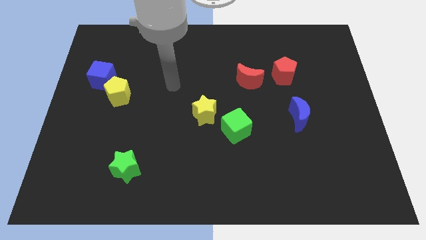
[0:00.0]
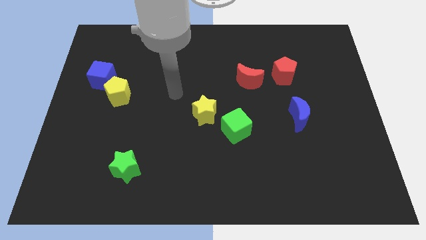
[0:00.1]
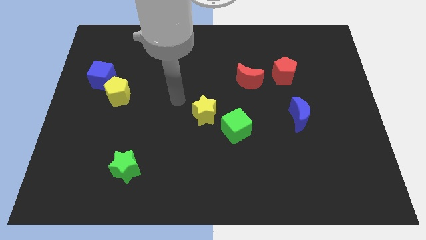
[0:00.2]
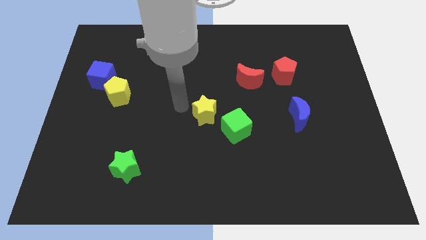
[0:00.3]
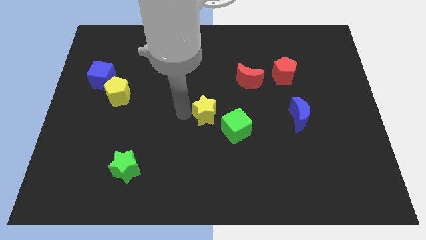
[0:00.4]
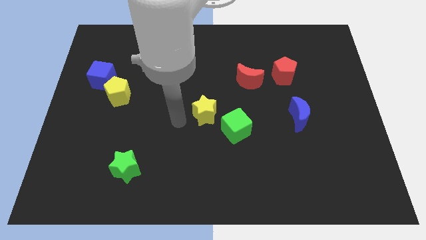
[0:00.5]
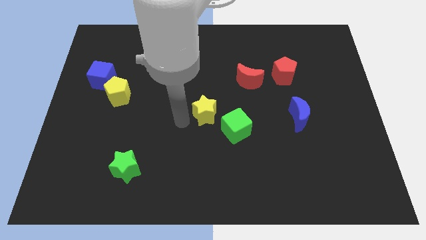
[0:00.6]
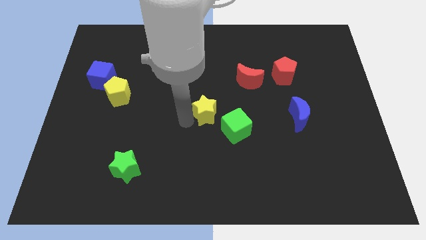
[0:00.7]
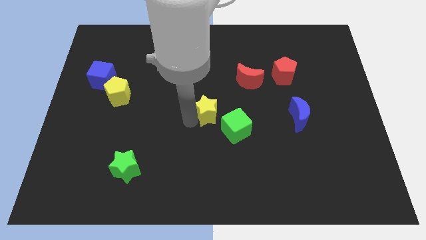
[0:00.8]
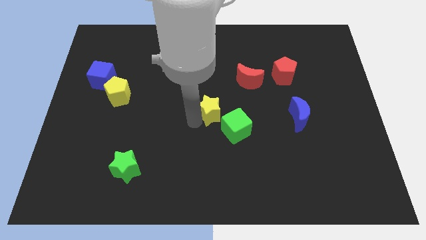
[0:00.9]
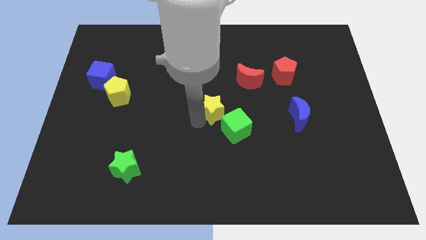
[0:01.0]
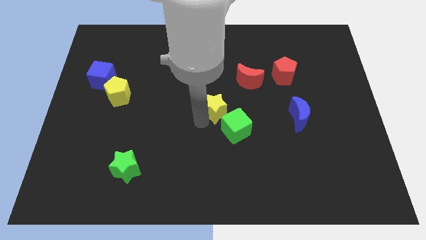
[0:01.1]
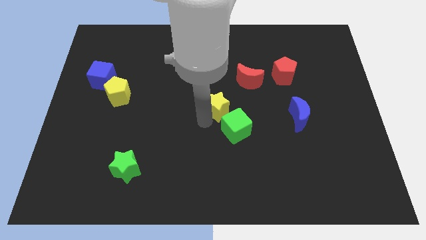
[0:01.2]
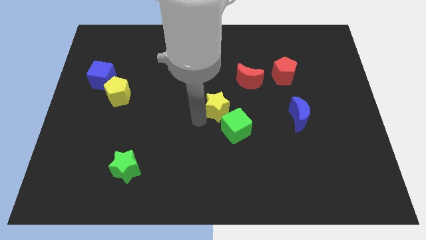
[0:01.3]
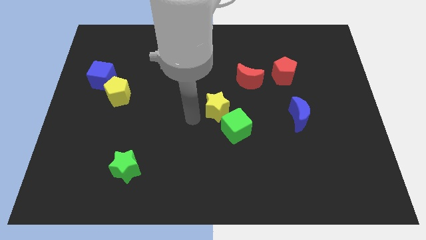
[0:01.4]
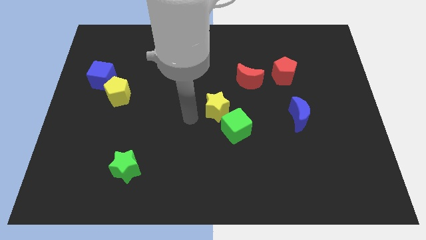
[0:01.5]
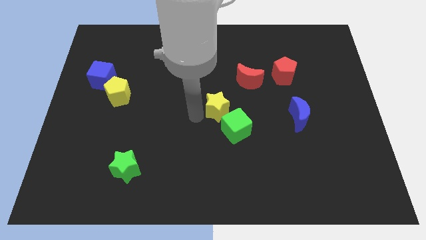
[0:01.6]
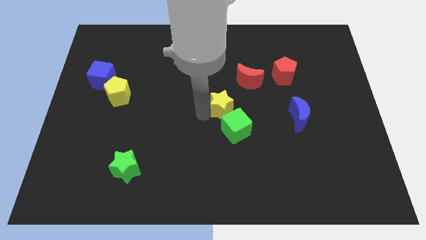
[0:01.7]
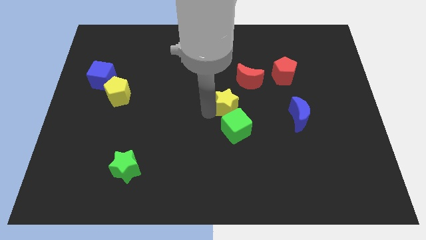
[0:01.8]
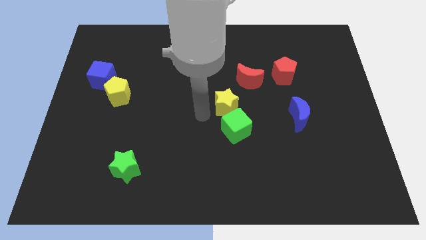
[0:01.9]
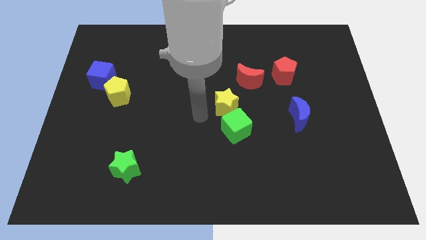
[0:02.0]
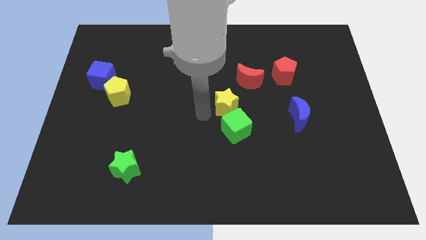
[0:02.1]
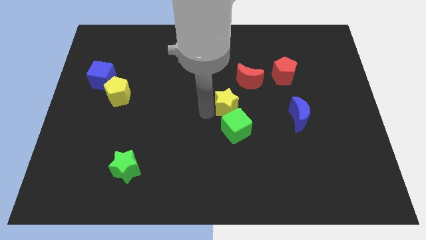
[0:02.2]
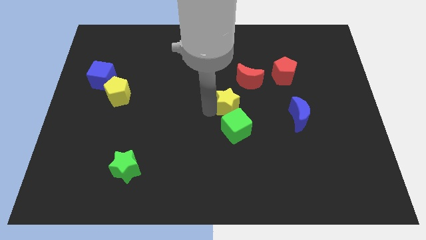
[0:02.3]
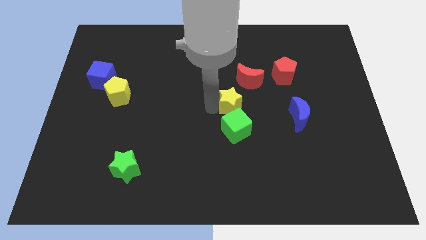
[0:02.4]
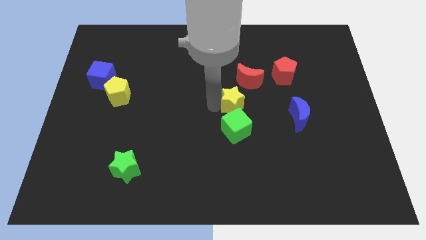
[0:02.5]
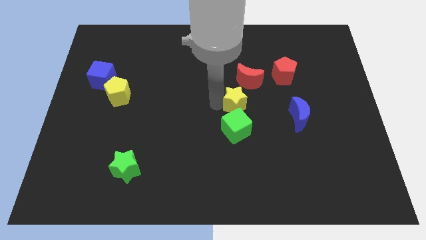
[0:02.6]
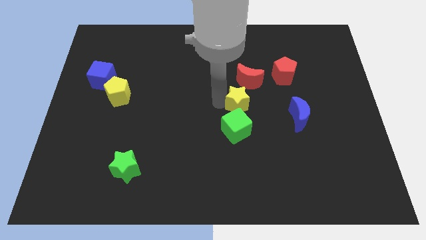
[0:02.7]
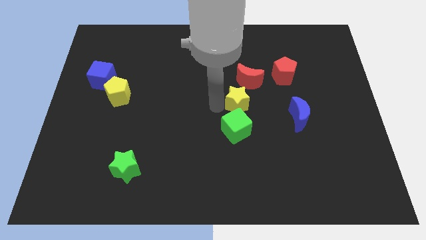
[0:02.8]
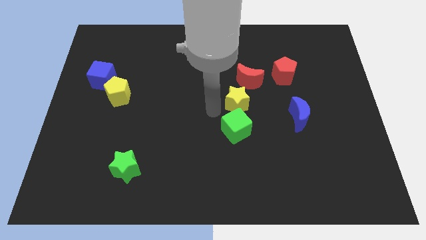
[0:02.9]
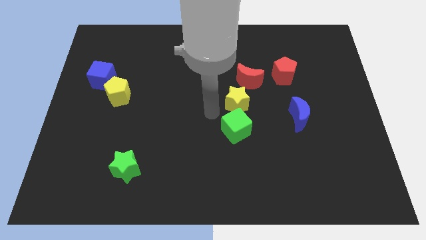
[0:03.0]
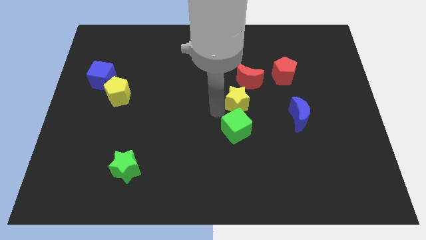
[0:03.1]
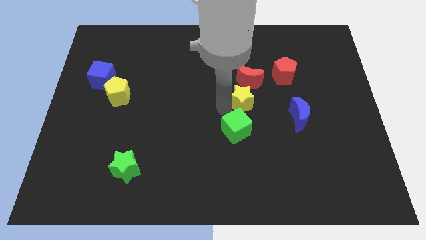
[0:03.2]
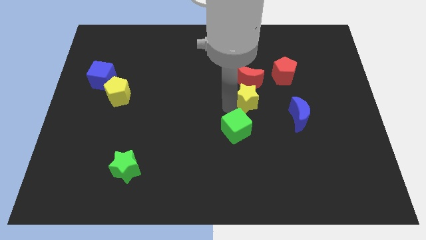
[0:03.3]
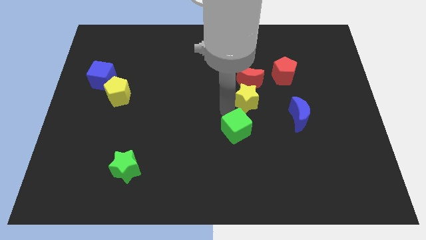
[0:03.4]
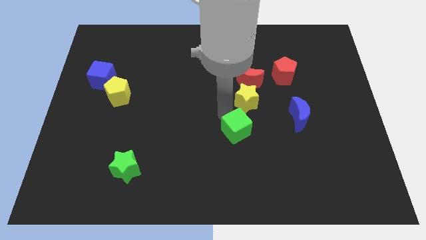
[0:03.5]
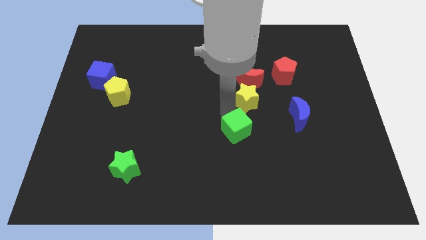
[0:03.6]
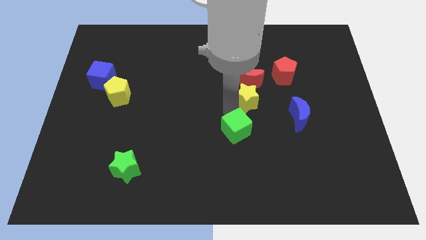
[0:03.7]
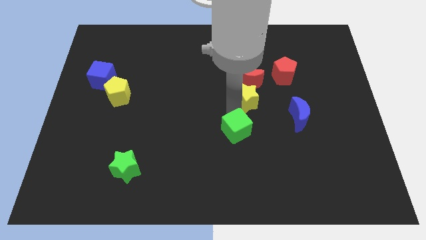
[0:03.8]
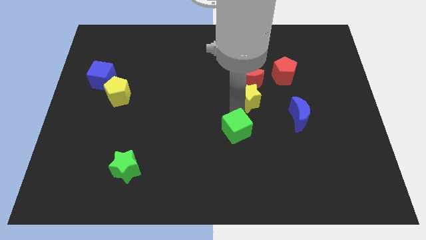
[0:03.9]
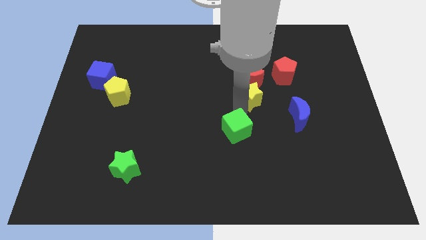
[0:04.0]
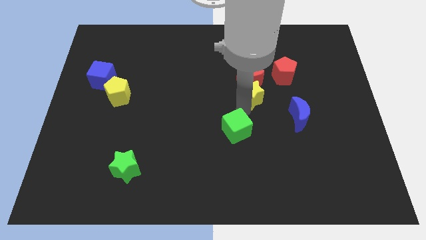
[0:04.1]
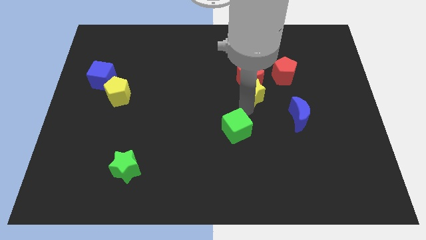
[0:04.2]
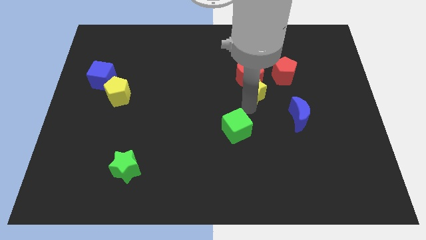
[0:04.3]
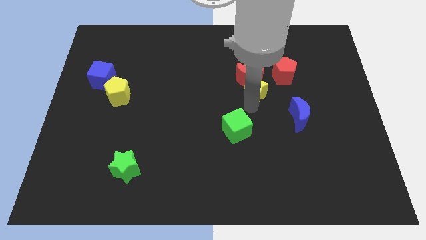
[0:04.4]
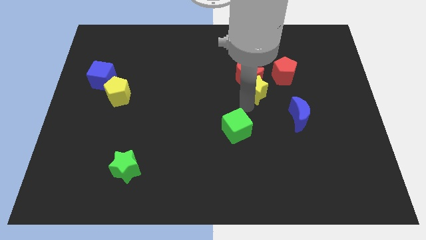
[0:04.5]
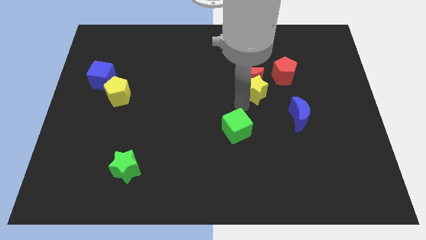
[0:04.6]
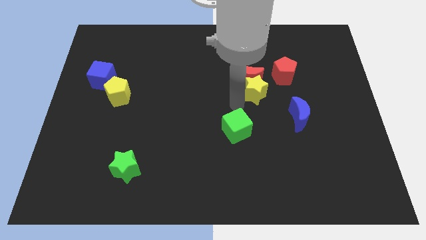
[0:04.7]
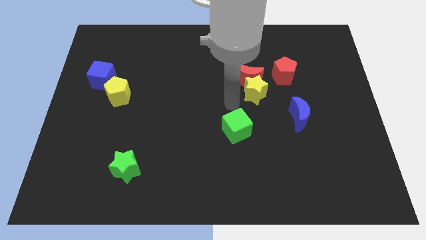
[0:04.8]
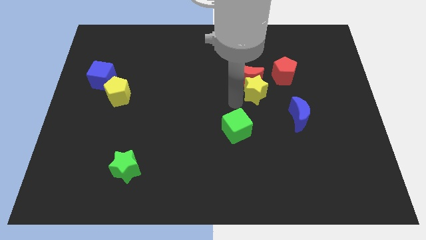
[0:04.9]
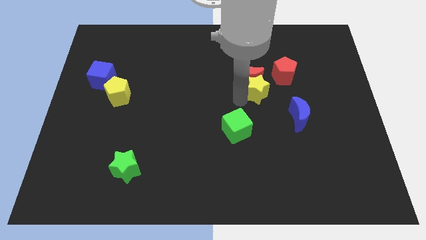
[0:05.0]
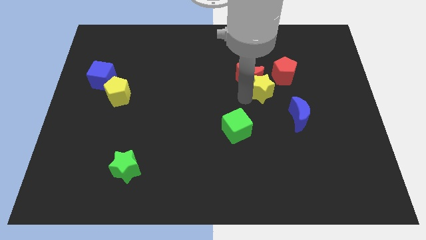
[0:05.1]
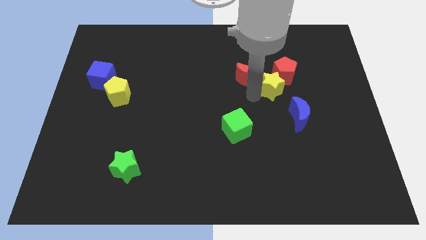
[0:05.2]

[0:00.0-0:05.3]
slide the yellow star towards the red pentagon

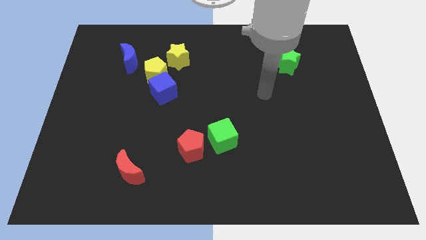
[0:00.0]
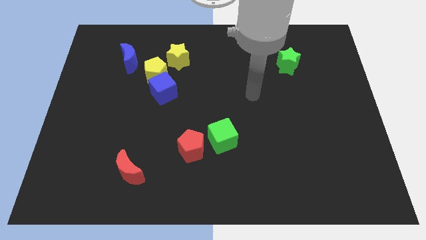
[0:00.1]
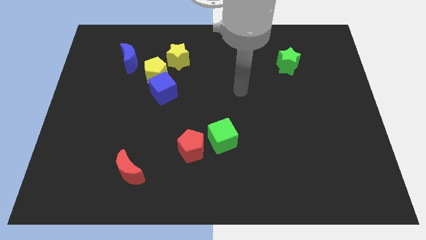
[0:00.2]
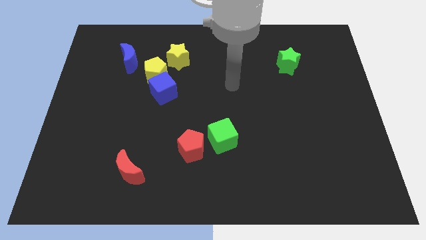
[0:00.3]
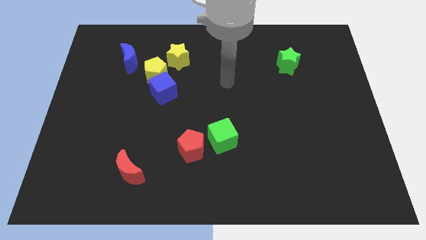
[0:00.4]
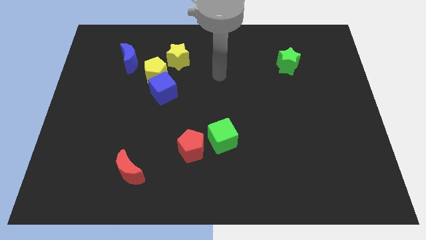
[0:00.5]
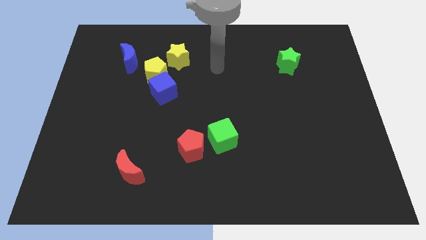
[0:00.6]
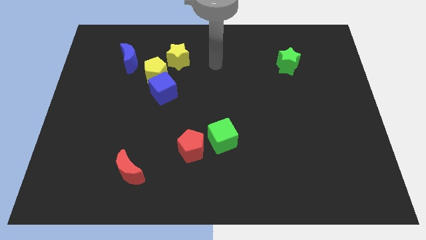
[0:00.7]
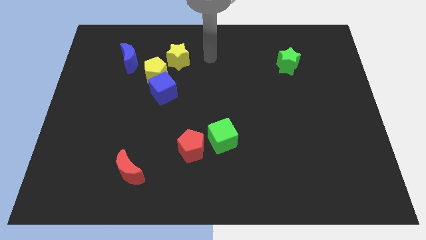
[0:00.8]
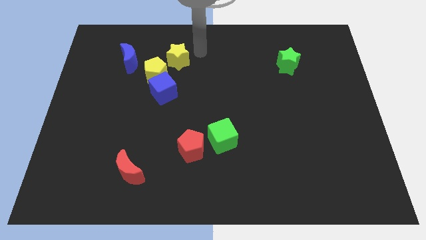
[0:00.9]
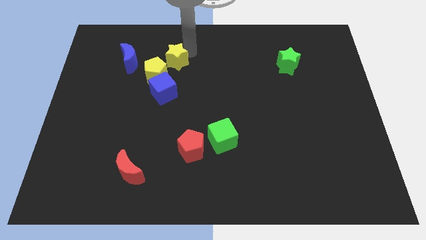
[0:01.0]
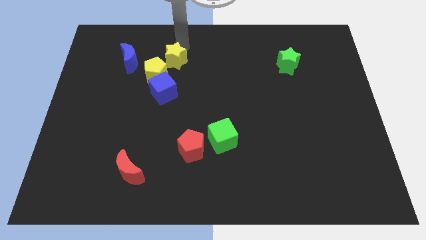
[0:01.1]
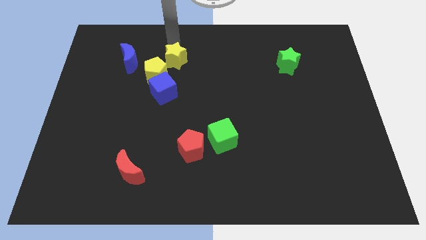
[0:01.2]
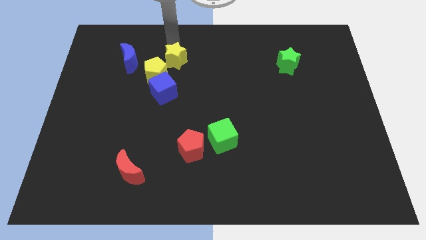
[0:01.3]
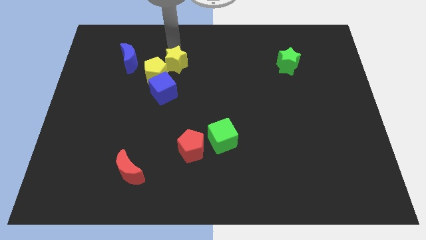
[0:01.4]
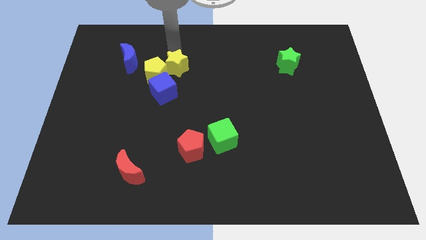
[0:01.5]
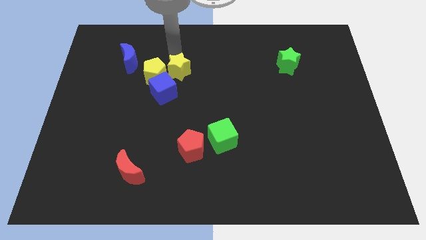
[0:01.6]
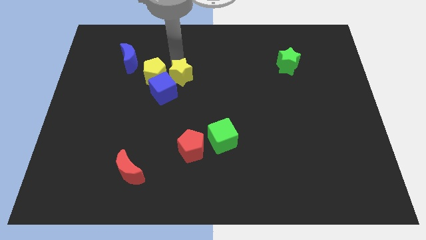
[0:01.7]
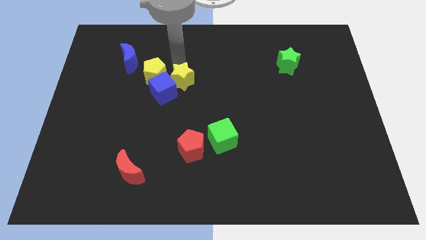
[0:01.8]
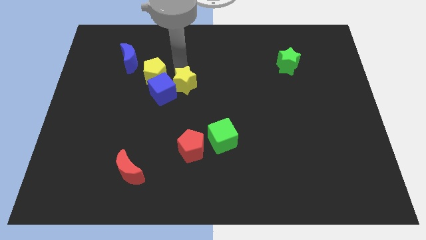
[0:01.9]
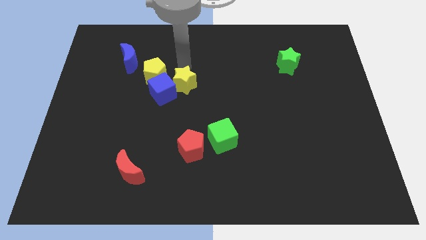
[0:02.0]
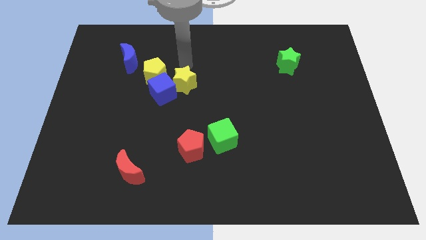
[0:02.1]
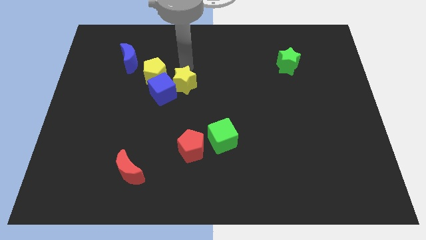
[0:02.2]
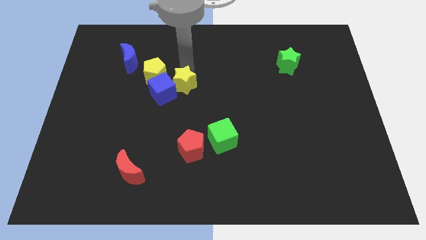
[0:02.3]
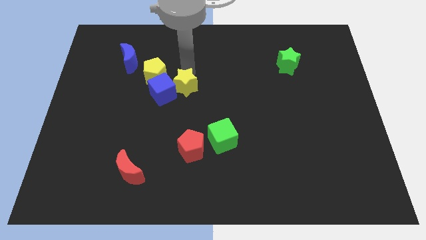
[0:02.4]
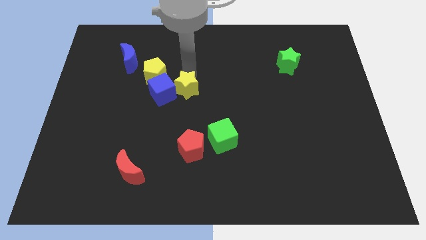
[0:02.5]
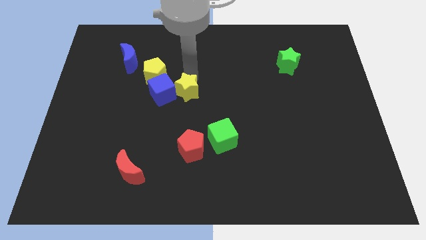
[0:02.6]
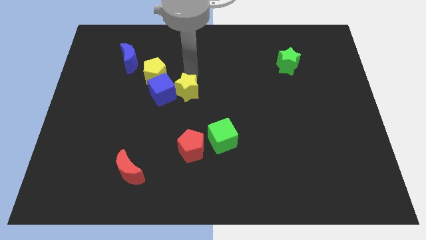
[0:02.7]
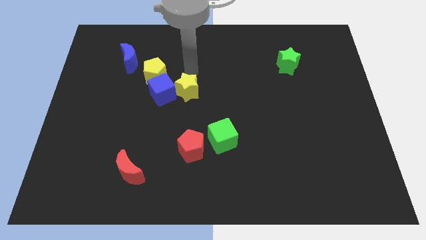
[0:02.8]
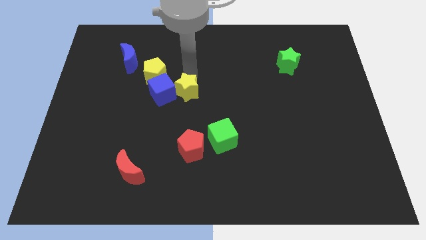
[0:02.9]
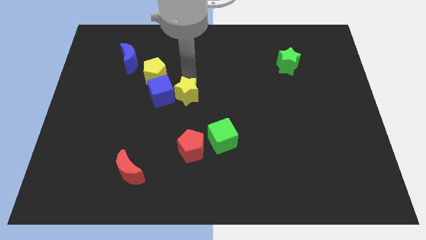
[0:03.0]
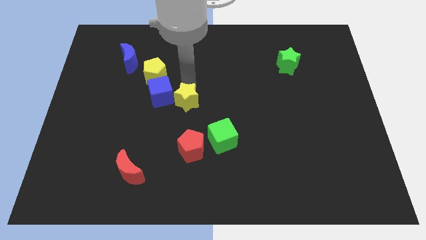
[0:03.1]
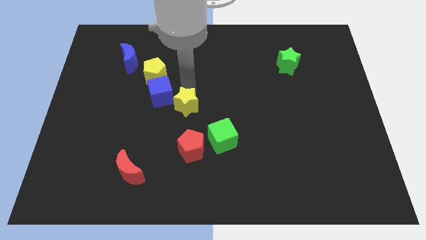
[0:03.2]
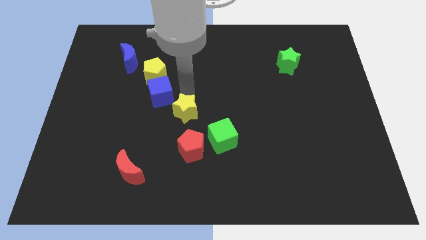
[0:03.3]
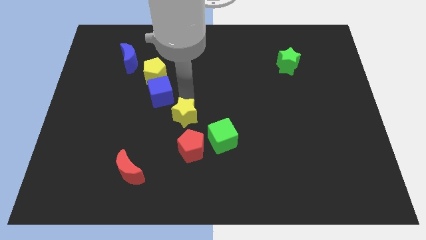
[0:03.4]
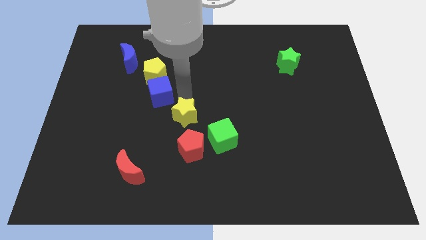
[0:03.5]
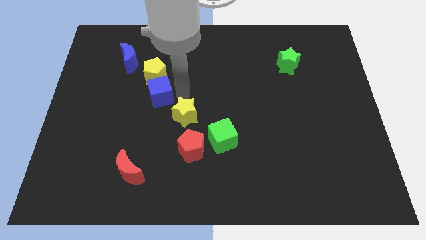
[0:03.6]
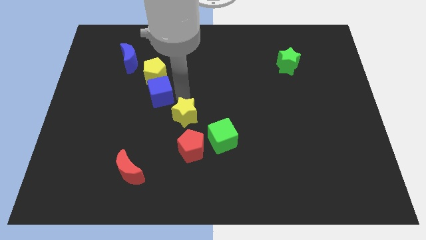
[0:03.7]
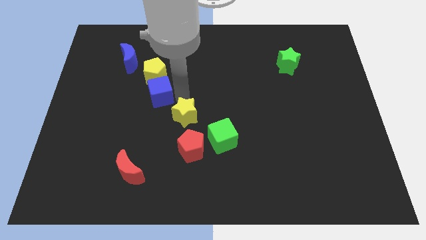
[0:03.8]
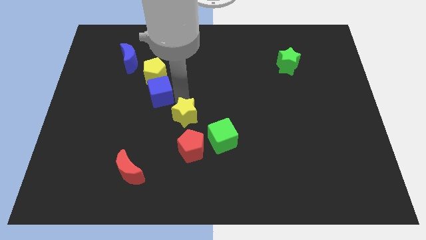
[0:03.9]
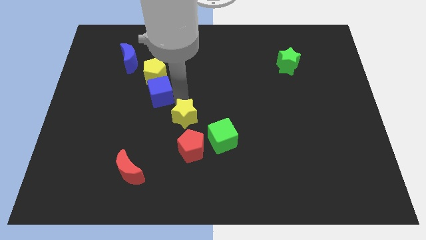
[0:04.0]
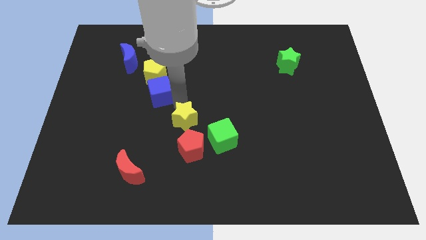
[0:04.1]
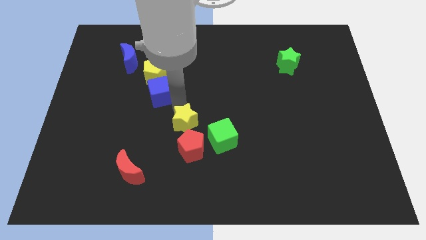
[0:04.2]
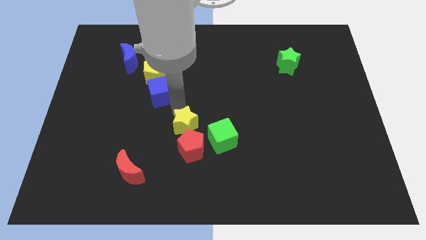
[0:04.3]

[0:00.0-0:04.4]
push the yellow star to the red pentagon
